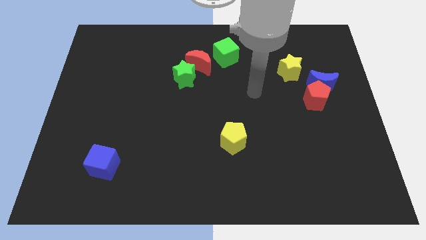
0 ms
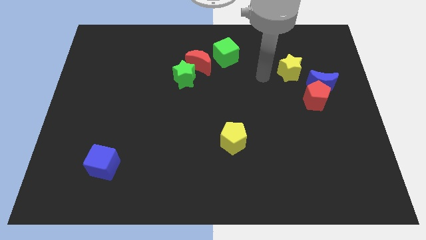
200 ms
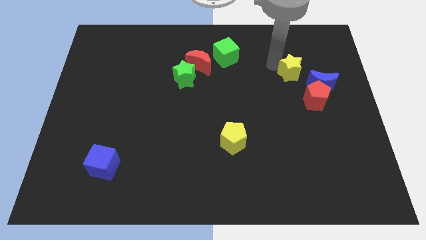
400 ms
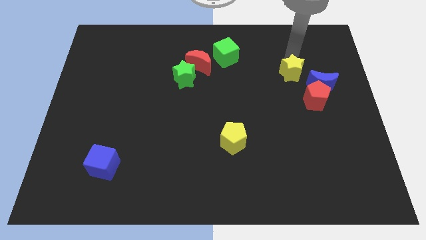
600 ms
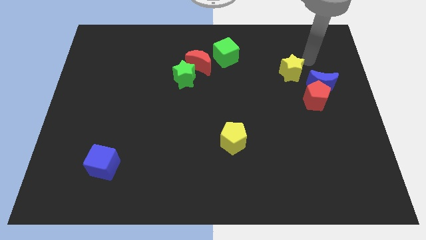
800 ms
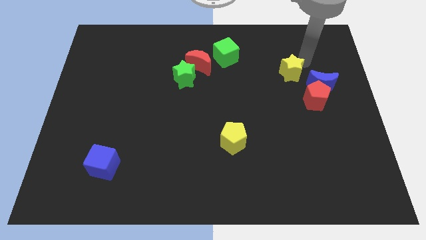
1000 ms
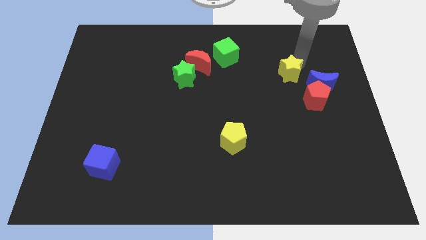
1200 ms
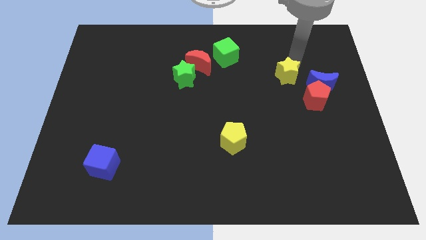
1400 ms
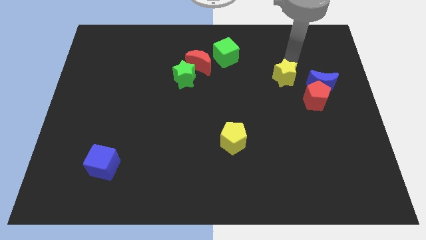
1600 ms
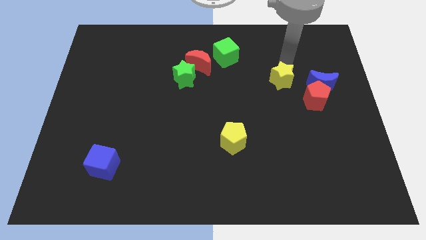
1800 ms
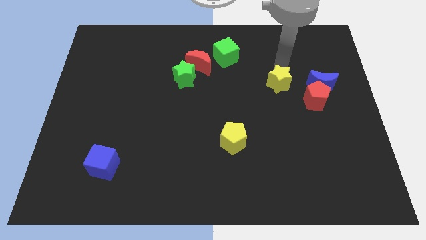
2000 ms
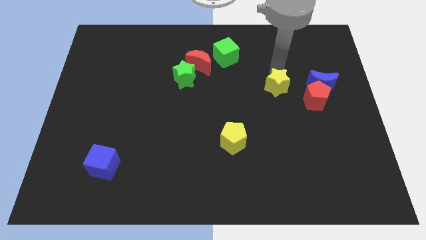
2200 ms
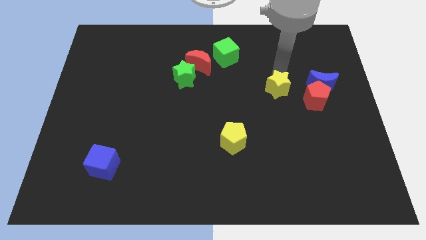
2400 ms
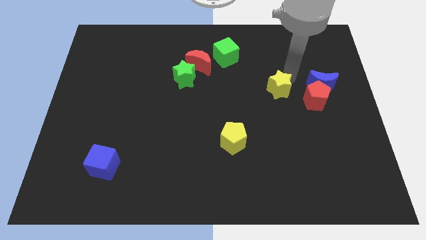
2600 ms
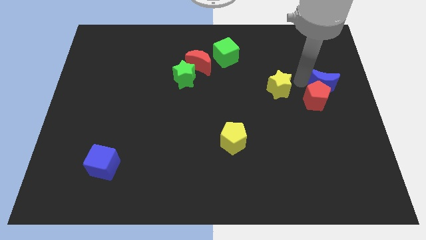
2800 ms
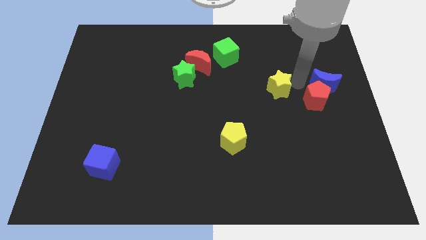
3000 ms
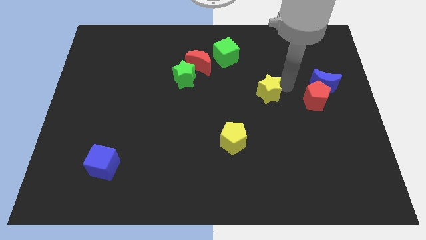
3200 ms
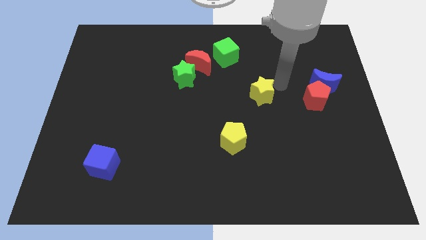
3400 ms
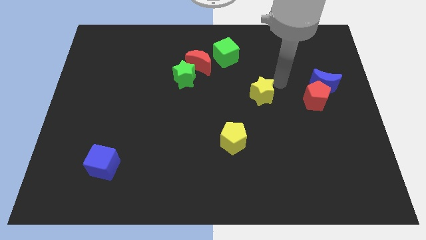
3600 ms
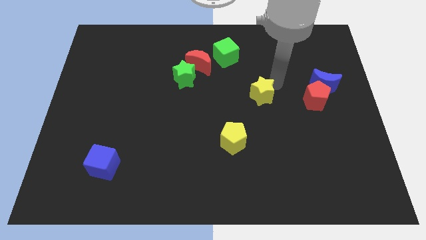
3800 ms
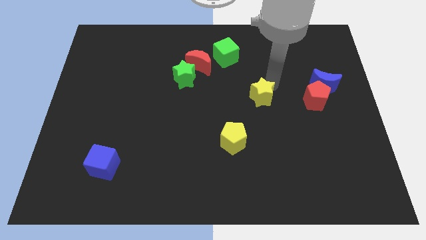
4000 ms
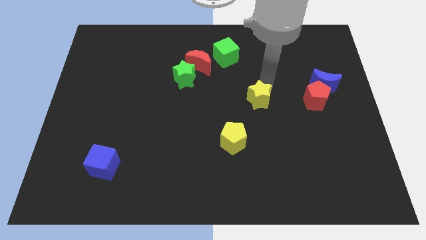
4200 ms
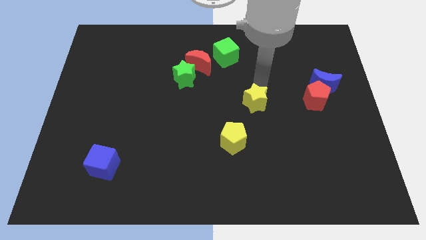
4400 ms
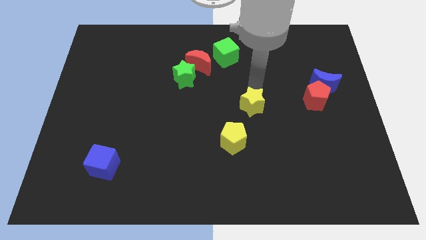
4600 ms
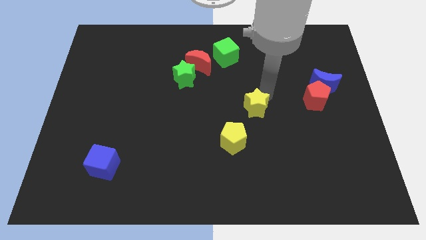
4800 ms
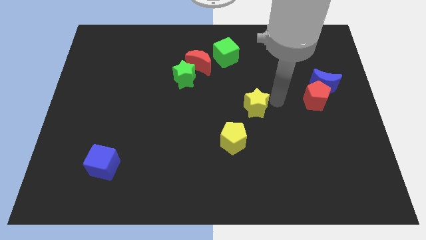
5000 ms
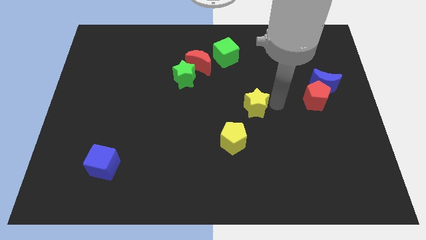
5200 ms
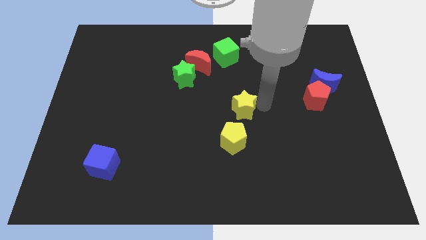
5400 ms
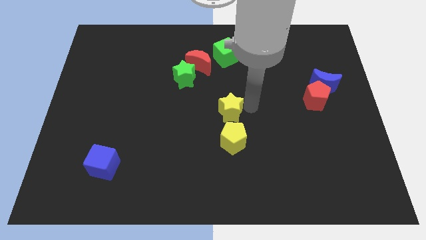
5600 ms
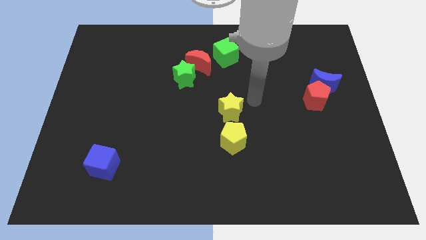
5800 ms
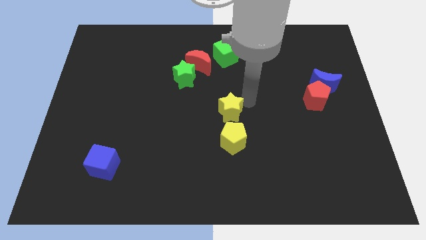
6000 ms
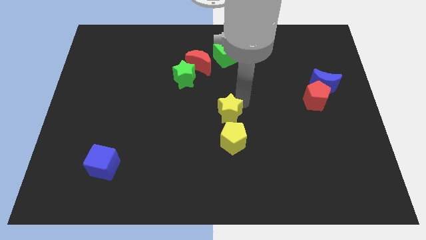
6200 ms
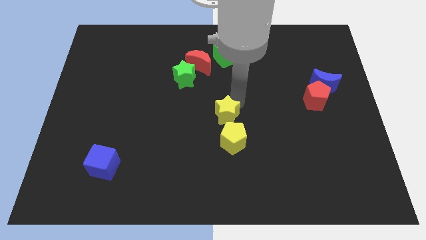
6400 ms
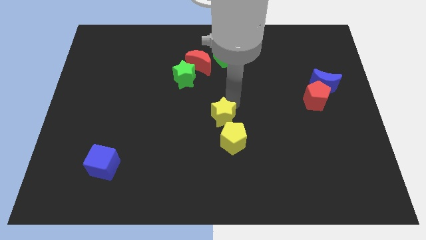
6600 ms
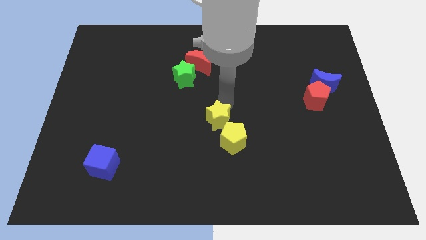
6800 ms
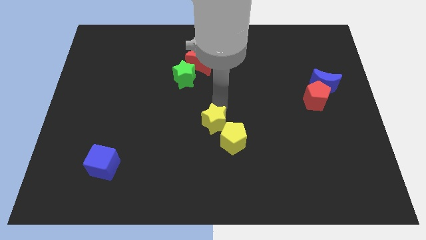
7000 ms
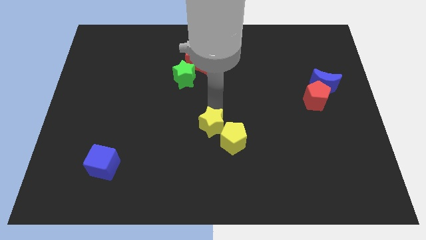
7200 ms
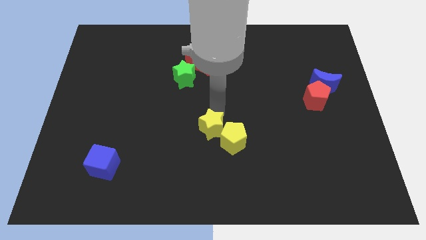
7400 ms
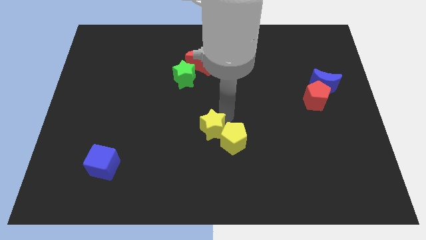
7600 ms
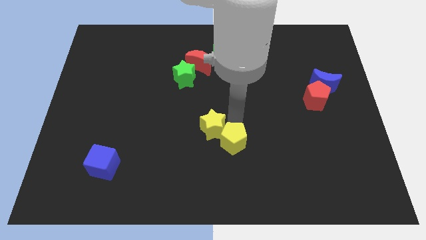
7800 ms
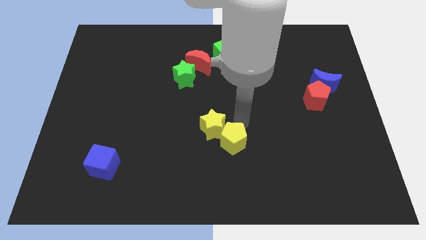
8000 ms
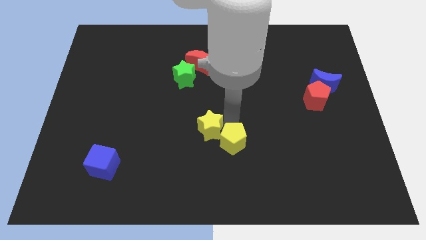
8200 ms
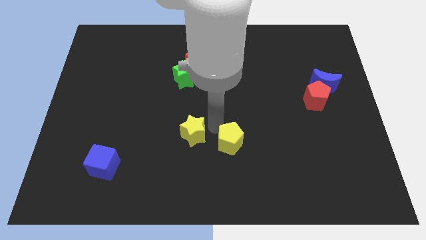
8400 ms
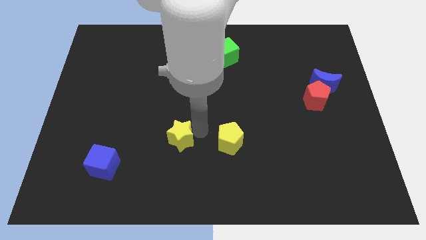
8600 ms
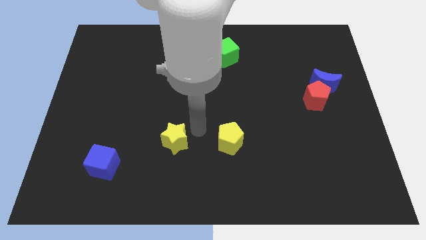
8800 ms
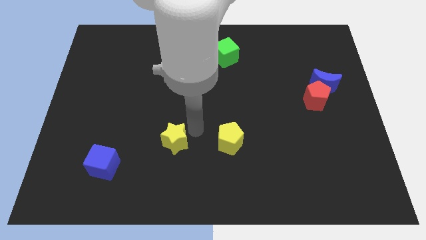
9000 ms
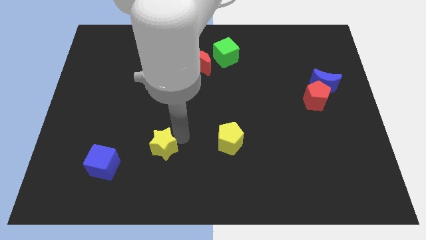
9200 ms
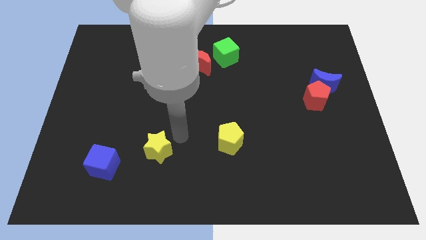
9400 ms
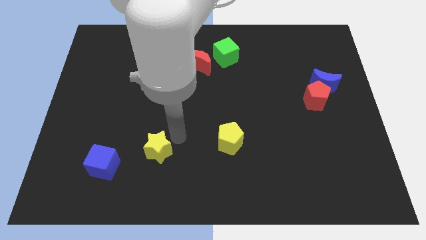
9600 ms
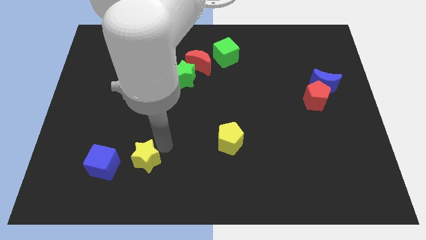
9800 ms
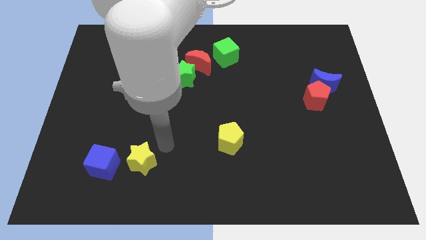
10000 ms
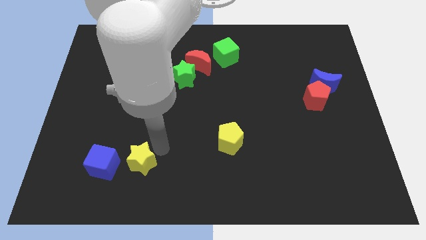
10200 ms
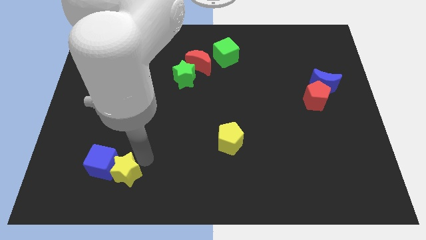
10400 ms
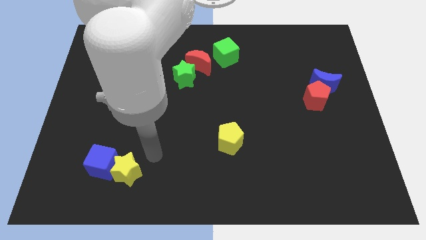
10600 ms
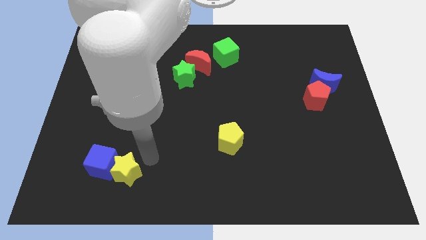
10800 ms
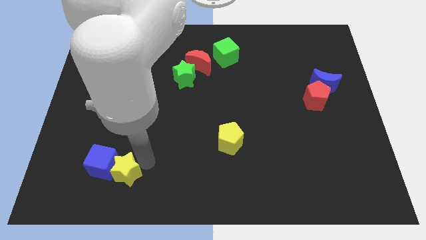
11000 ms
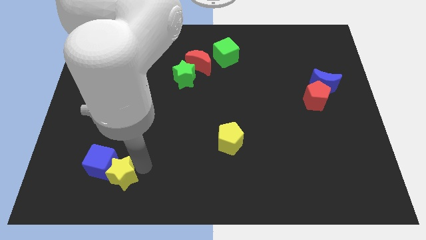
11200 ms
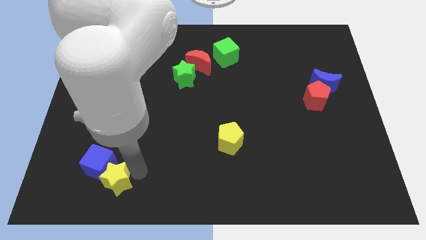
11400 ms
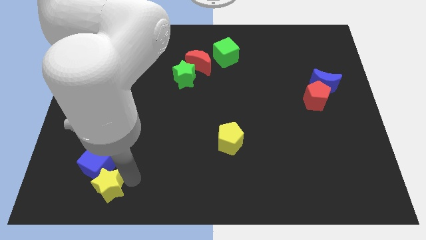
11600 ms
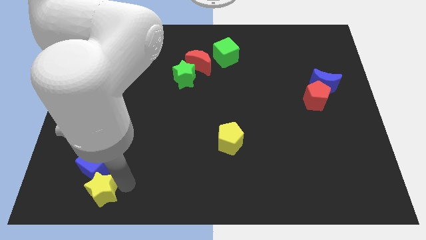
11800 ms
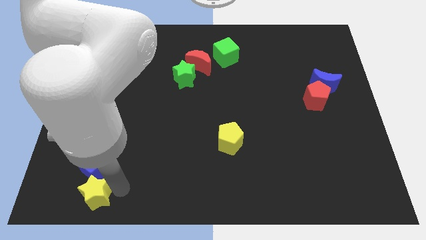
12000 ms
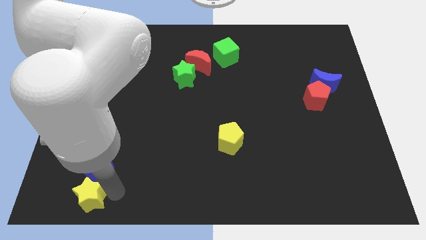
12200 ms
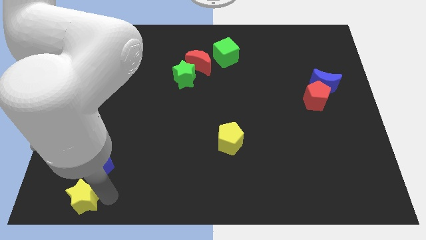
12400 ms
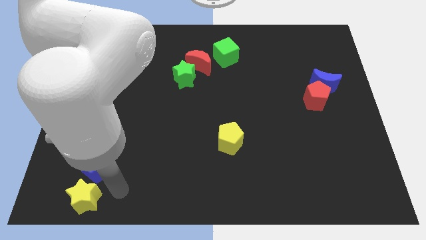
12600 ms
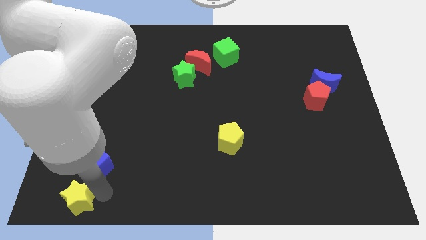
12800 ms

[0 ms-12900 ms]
slide the yellow star to the lower left corner
